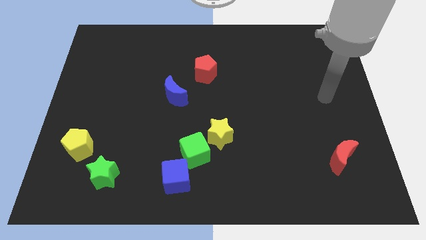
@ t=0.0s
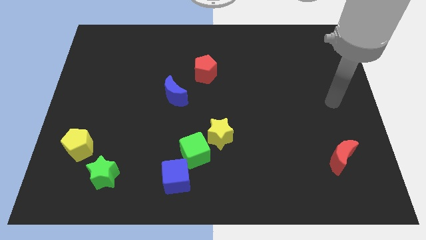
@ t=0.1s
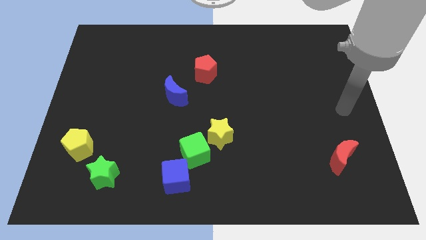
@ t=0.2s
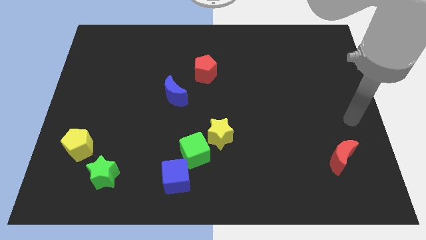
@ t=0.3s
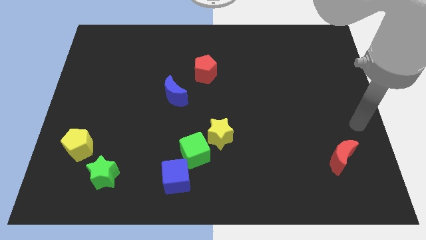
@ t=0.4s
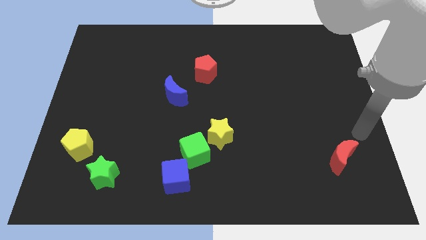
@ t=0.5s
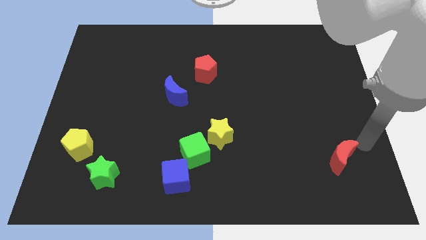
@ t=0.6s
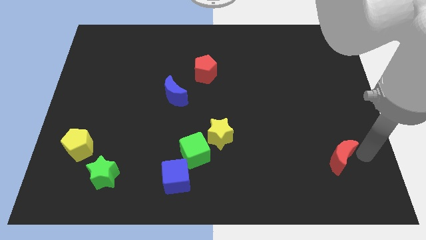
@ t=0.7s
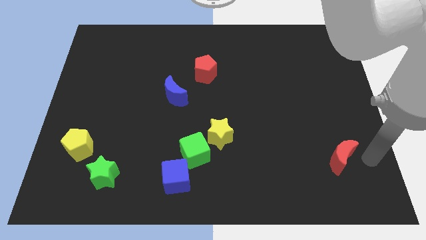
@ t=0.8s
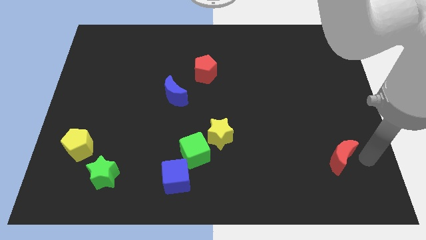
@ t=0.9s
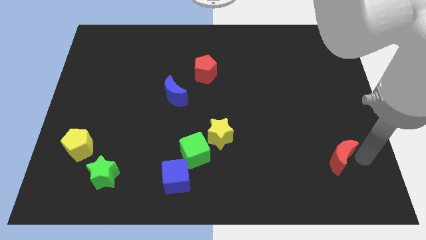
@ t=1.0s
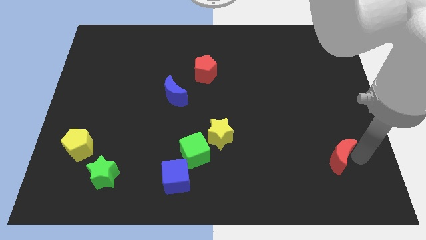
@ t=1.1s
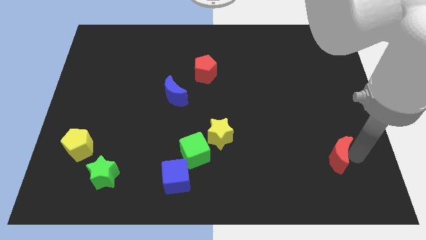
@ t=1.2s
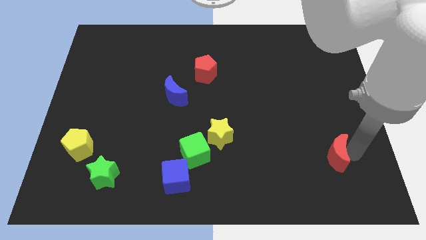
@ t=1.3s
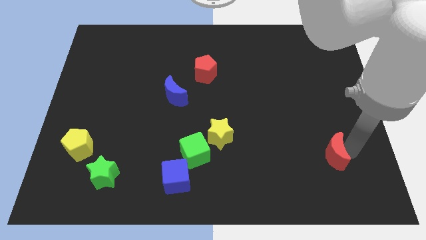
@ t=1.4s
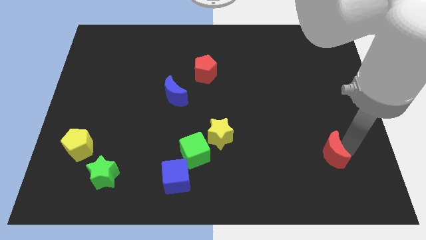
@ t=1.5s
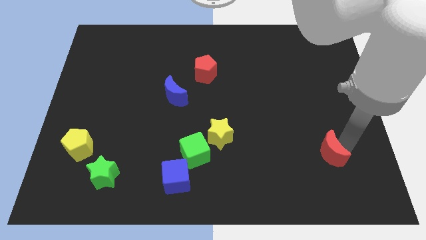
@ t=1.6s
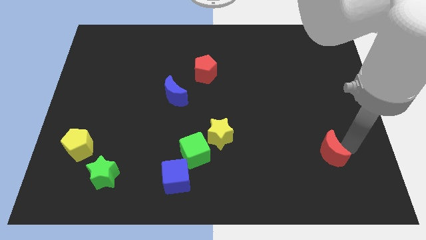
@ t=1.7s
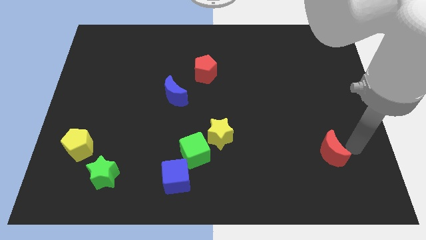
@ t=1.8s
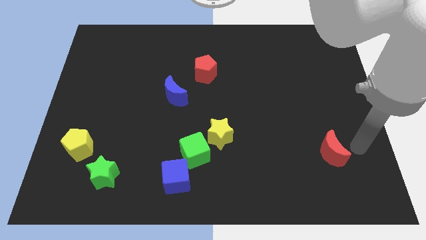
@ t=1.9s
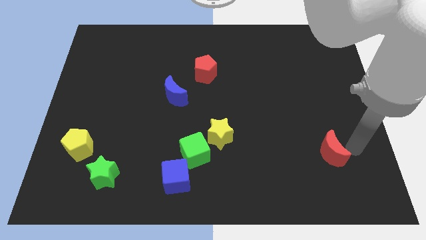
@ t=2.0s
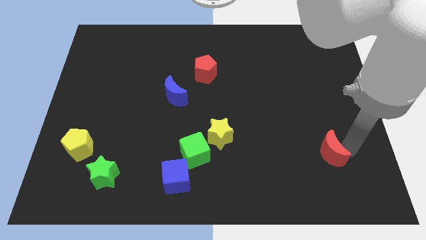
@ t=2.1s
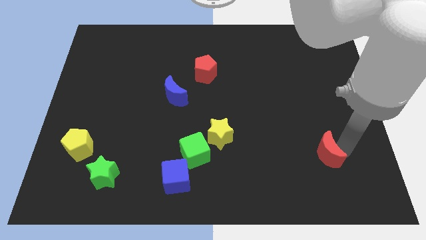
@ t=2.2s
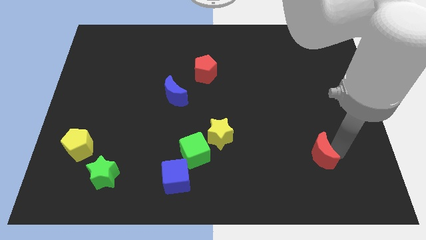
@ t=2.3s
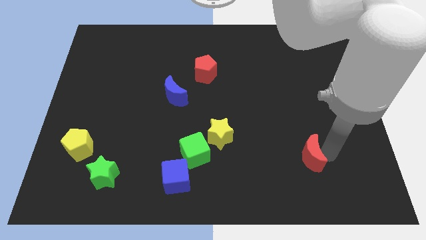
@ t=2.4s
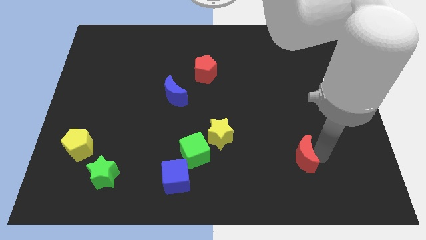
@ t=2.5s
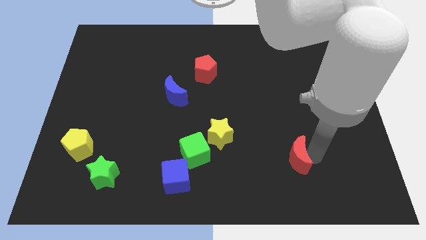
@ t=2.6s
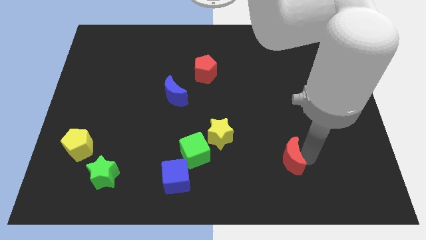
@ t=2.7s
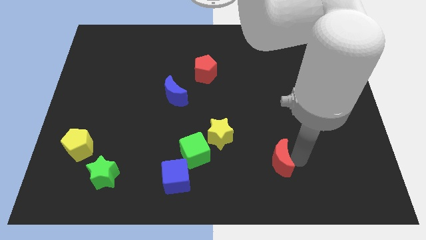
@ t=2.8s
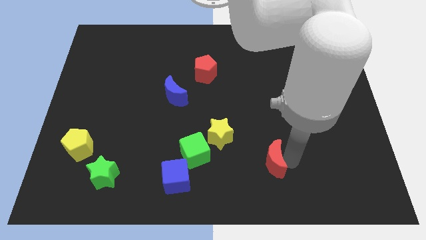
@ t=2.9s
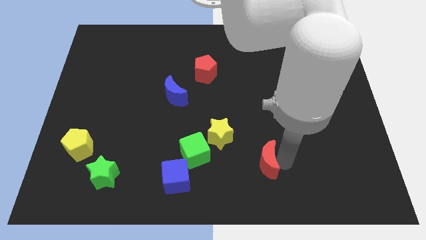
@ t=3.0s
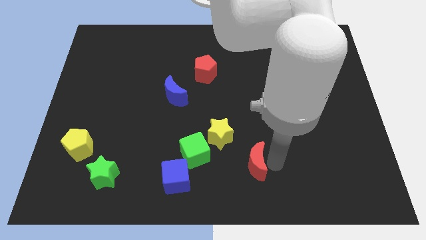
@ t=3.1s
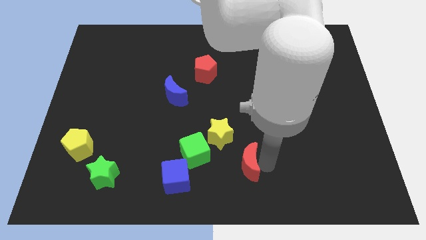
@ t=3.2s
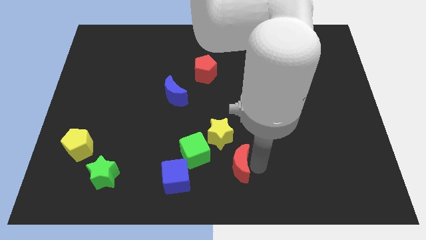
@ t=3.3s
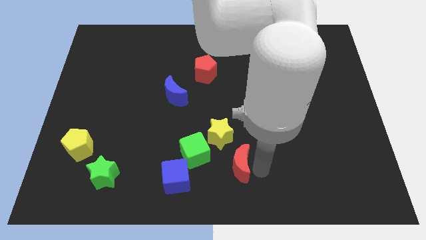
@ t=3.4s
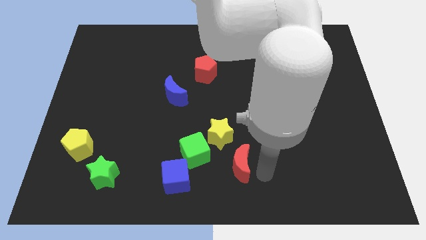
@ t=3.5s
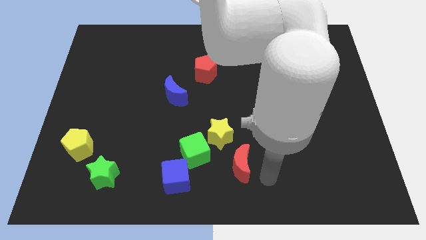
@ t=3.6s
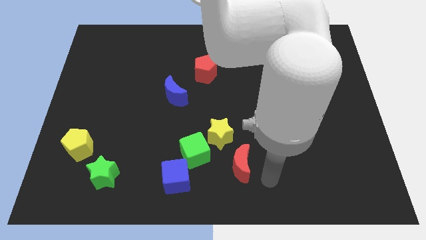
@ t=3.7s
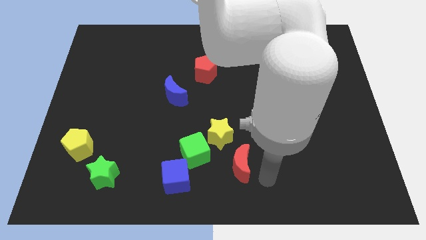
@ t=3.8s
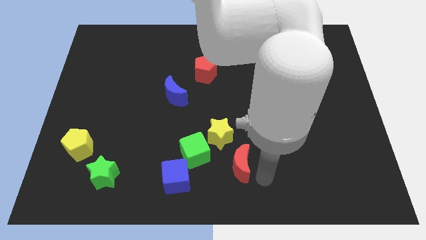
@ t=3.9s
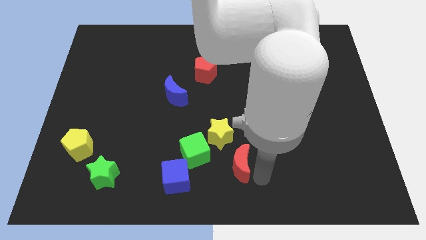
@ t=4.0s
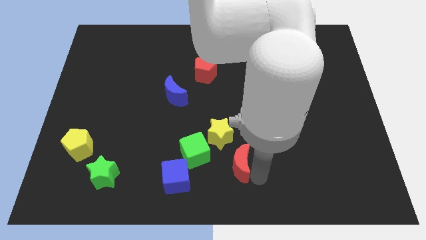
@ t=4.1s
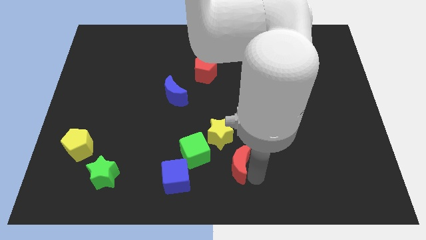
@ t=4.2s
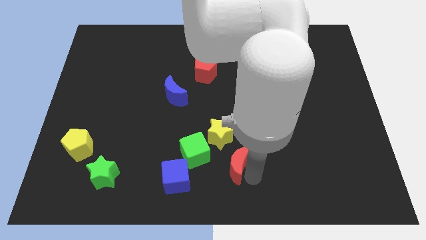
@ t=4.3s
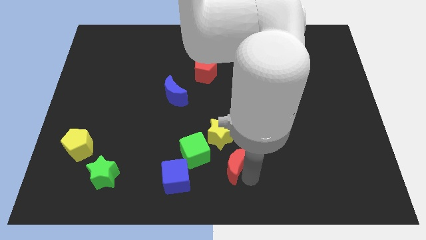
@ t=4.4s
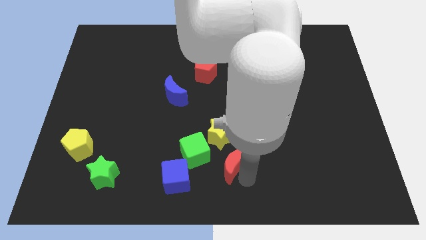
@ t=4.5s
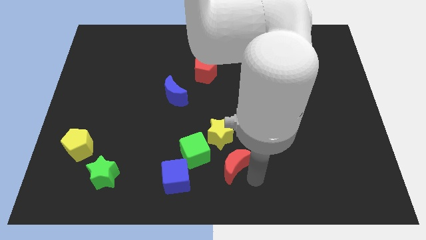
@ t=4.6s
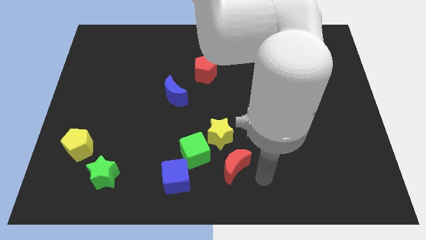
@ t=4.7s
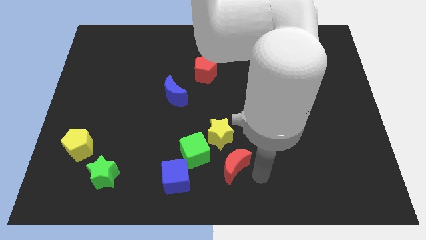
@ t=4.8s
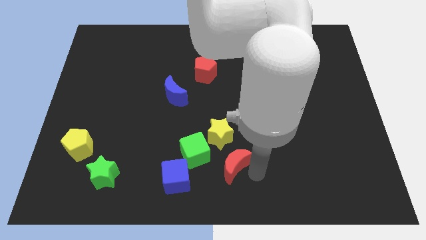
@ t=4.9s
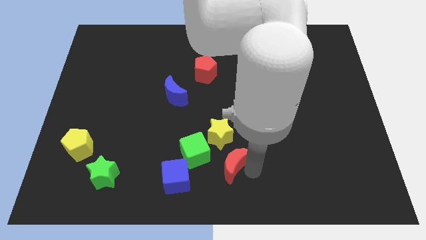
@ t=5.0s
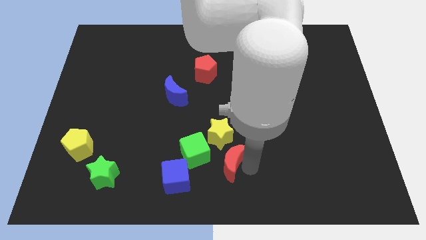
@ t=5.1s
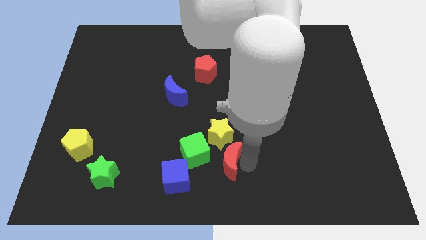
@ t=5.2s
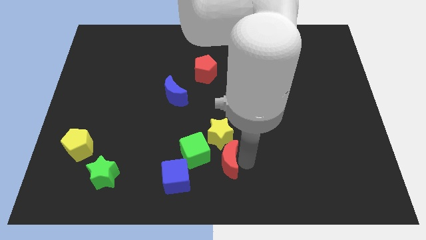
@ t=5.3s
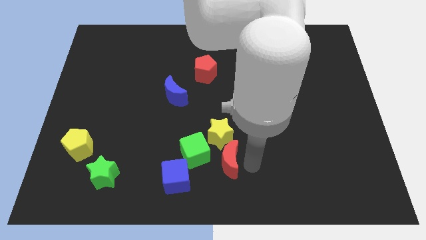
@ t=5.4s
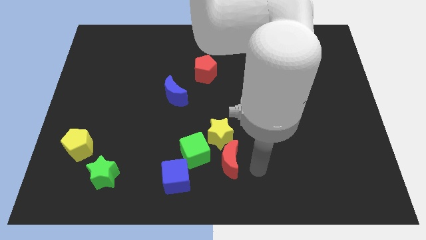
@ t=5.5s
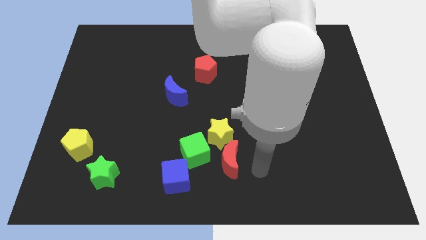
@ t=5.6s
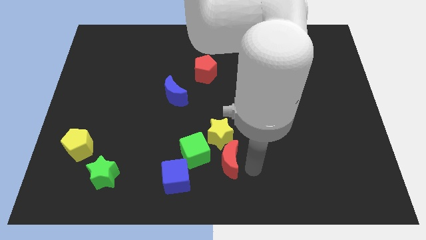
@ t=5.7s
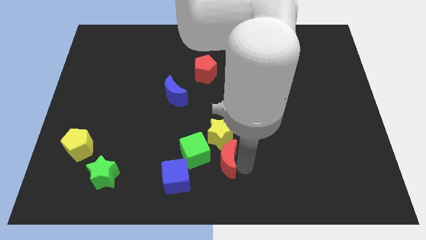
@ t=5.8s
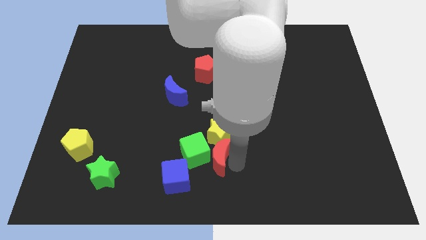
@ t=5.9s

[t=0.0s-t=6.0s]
slide the red moon next to the green cube

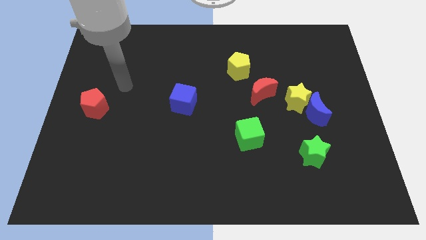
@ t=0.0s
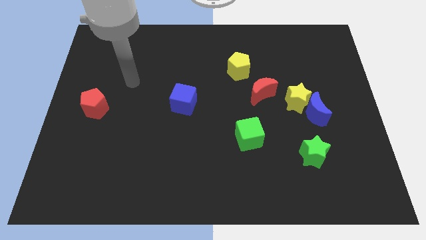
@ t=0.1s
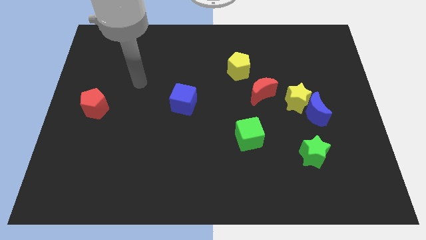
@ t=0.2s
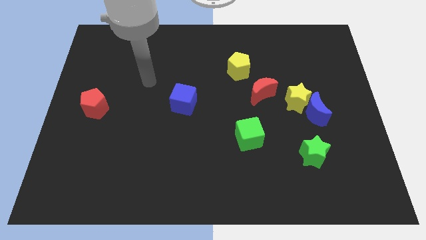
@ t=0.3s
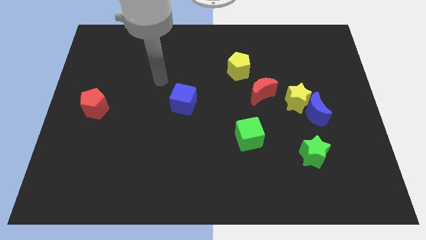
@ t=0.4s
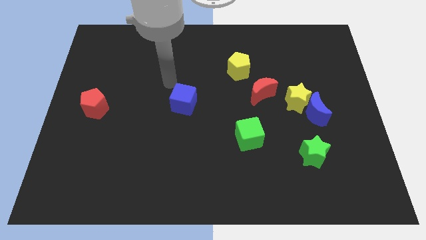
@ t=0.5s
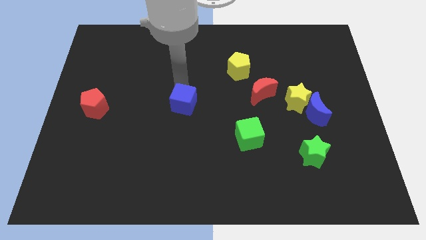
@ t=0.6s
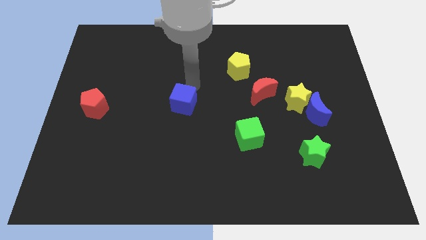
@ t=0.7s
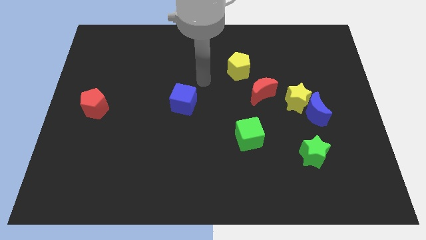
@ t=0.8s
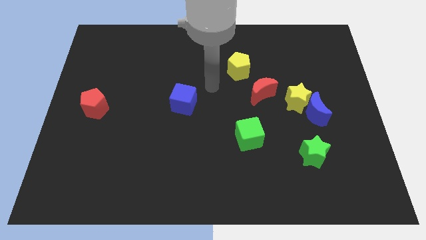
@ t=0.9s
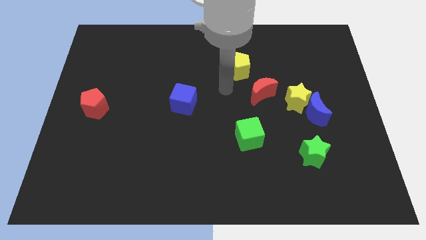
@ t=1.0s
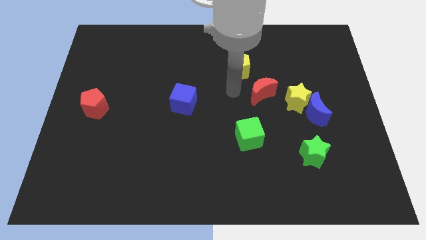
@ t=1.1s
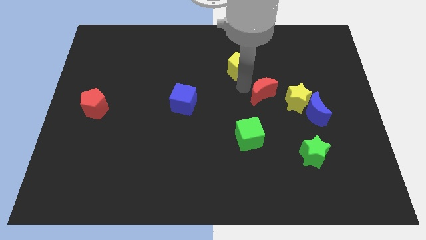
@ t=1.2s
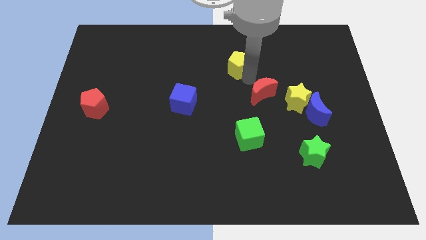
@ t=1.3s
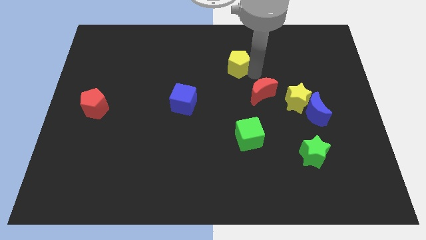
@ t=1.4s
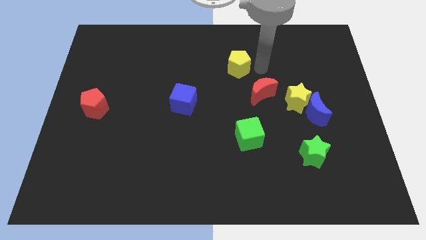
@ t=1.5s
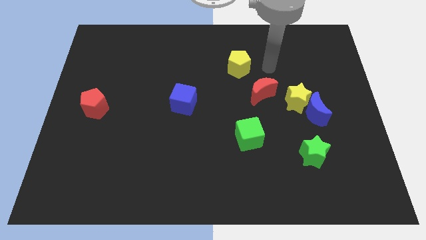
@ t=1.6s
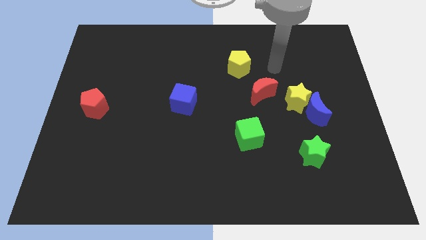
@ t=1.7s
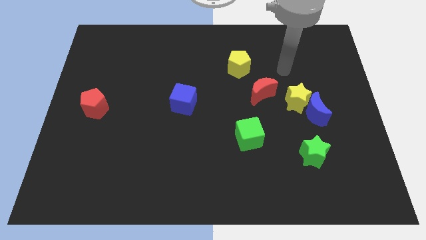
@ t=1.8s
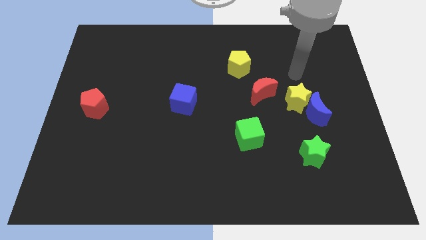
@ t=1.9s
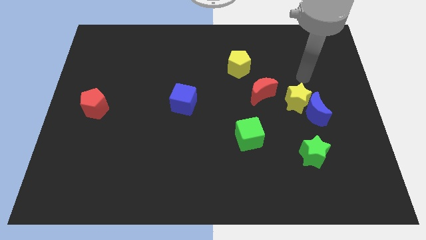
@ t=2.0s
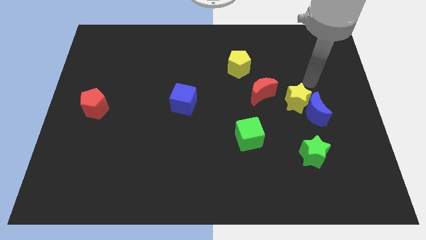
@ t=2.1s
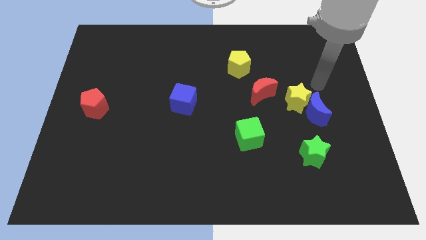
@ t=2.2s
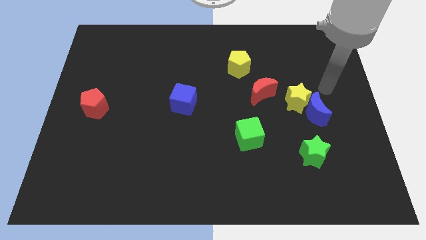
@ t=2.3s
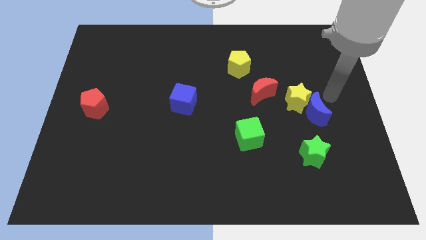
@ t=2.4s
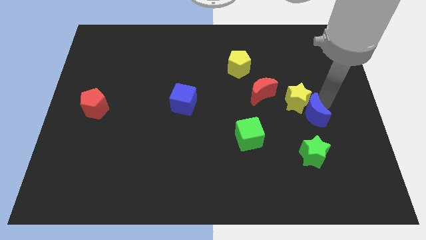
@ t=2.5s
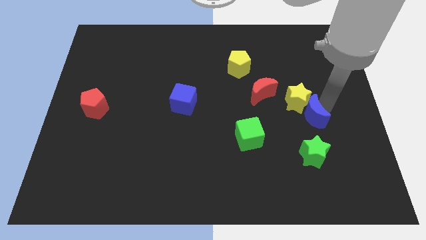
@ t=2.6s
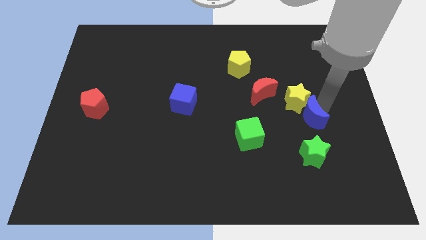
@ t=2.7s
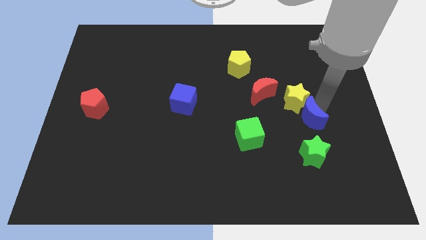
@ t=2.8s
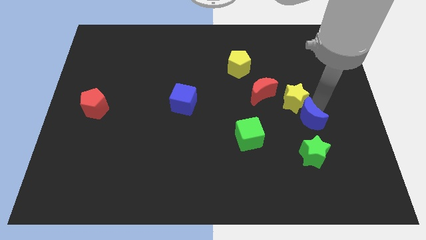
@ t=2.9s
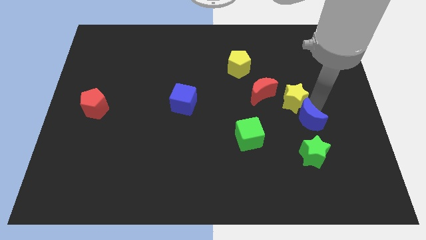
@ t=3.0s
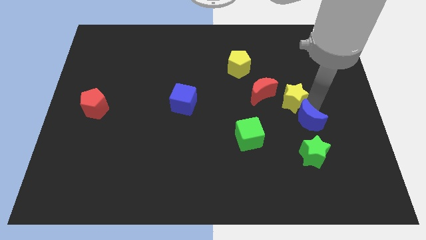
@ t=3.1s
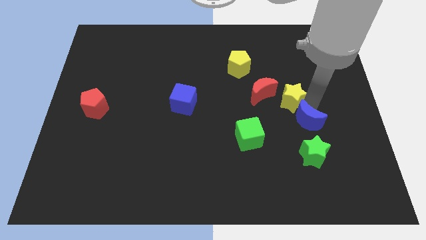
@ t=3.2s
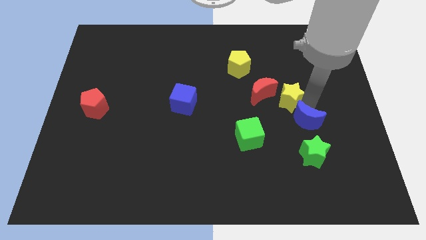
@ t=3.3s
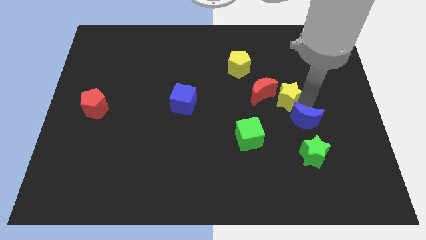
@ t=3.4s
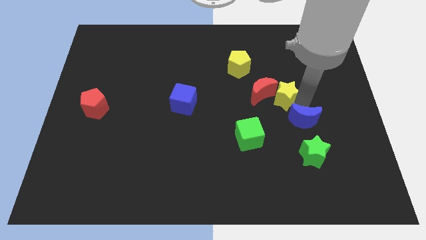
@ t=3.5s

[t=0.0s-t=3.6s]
push the yellow star towards the red moon
